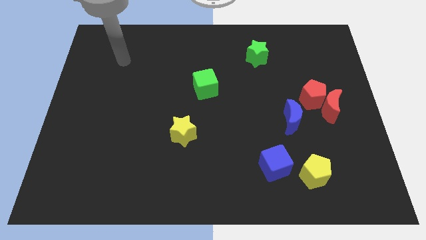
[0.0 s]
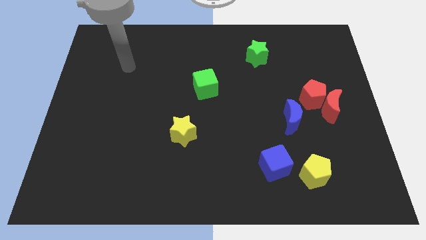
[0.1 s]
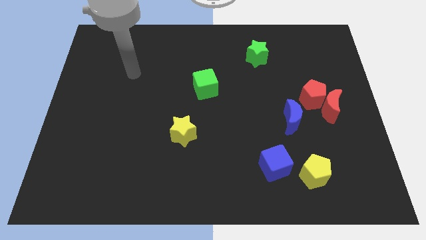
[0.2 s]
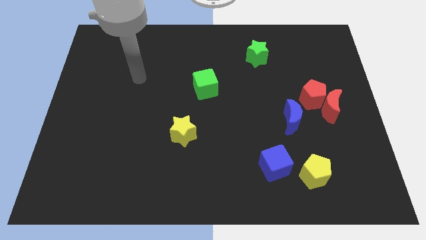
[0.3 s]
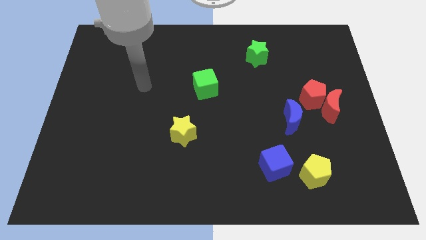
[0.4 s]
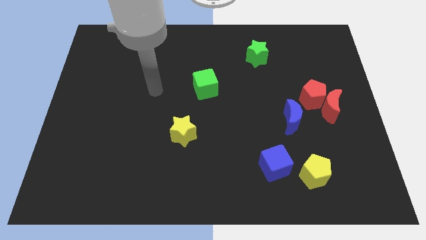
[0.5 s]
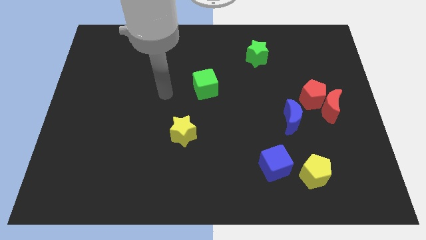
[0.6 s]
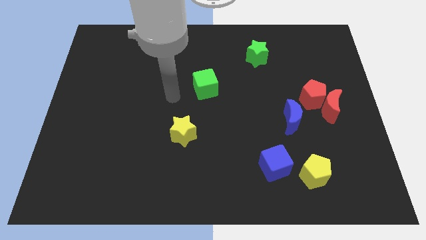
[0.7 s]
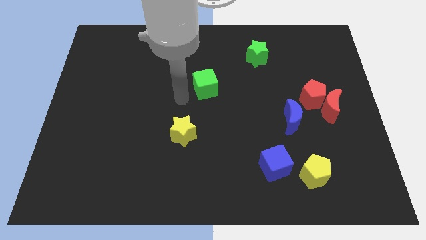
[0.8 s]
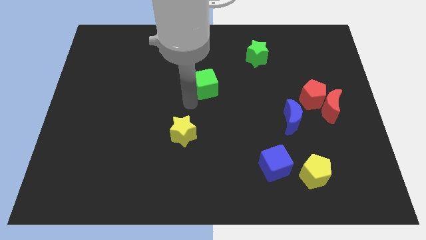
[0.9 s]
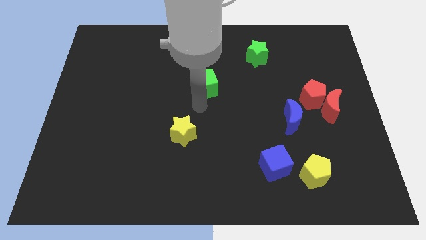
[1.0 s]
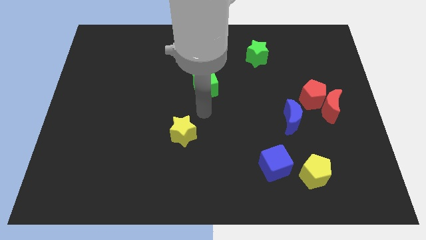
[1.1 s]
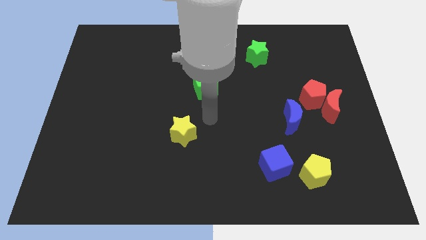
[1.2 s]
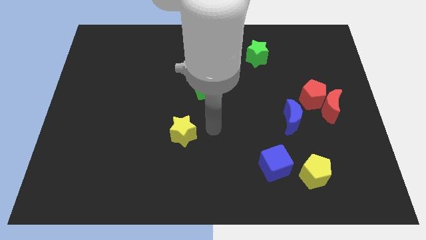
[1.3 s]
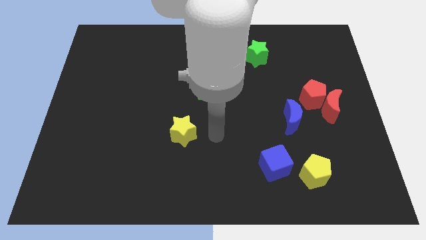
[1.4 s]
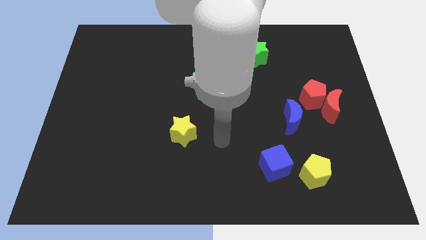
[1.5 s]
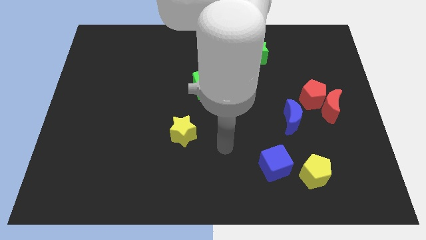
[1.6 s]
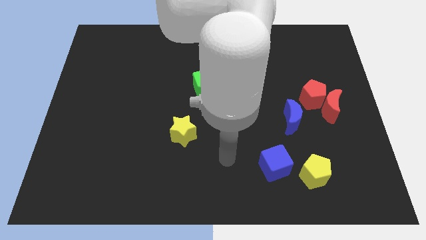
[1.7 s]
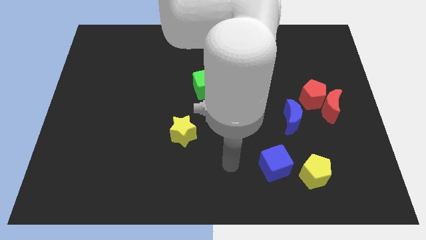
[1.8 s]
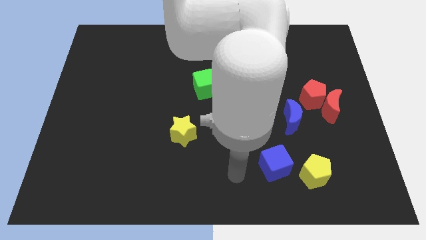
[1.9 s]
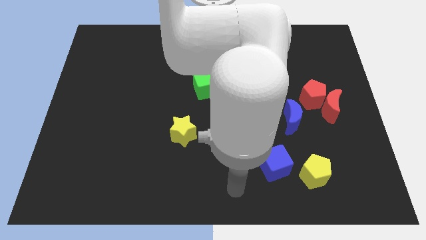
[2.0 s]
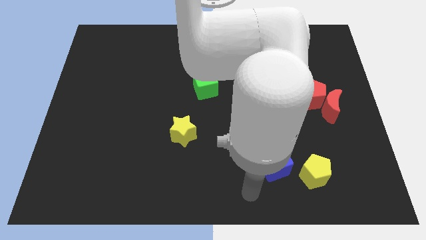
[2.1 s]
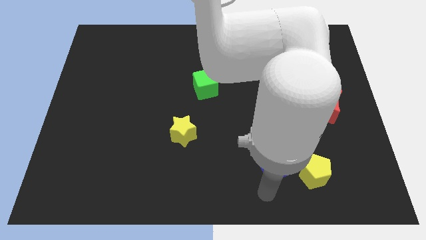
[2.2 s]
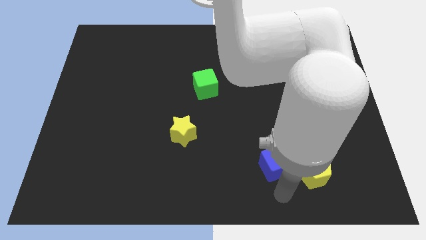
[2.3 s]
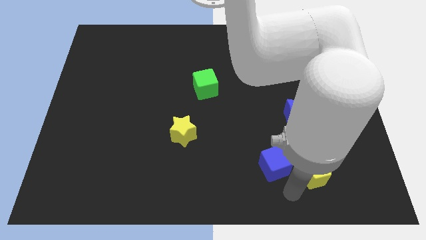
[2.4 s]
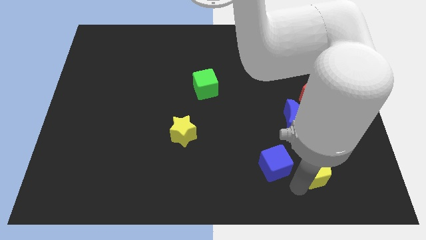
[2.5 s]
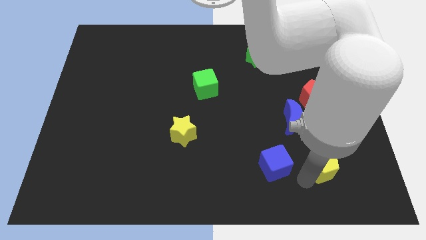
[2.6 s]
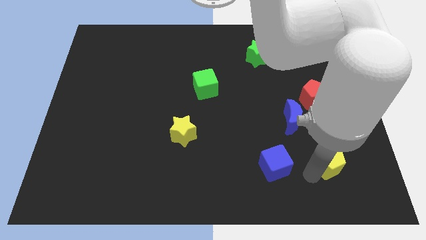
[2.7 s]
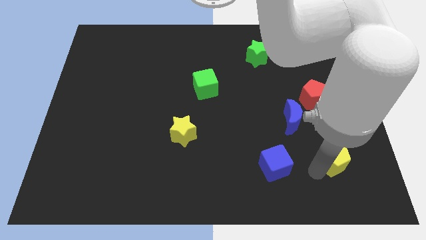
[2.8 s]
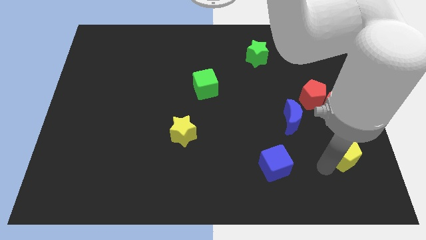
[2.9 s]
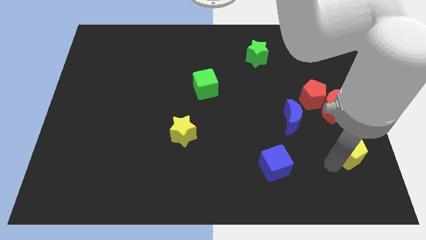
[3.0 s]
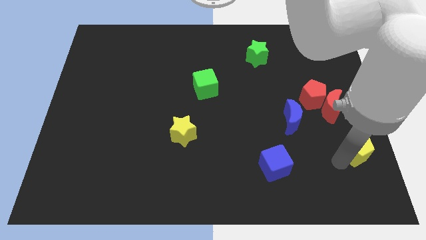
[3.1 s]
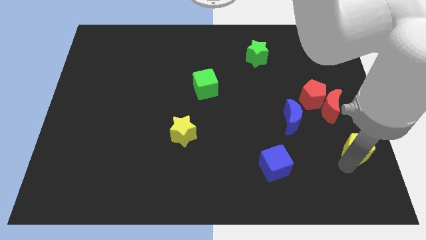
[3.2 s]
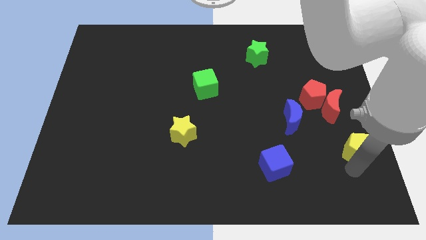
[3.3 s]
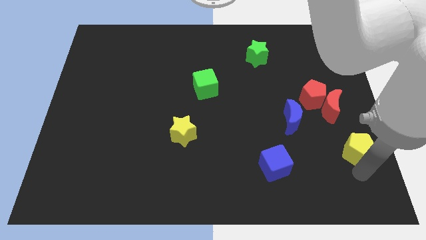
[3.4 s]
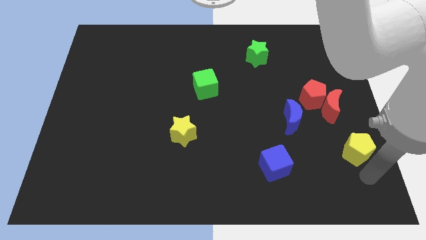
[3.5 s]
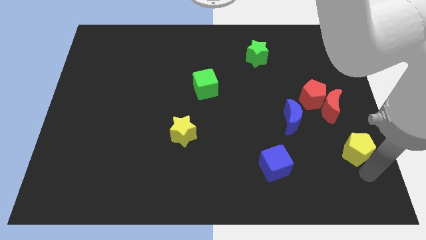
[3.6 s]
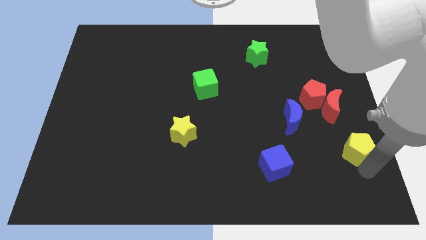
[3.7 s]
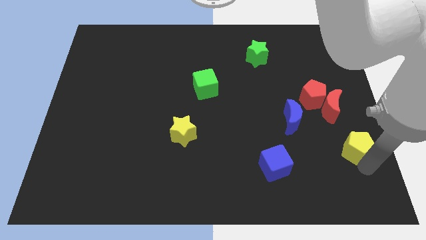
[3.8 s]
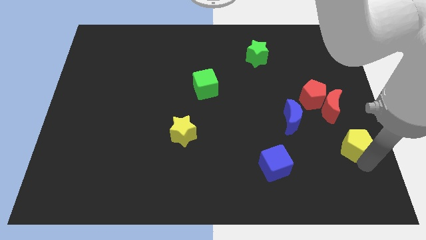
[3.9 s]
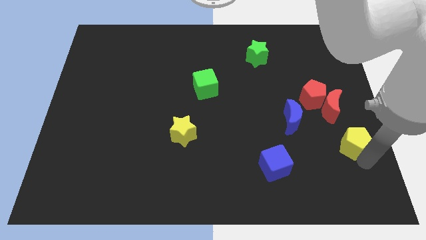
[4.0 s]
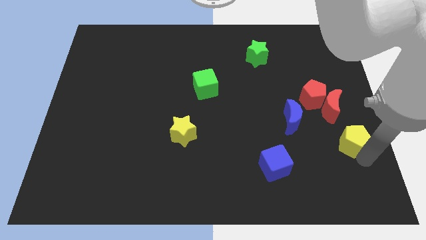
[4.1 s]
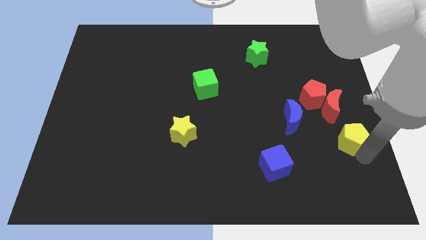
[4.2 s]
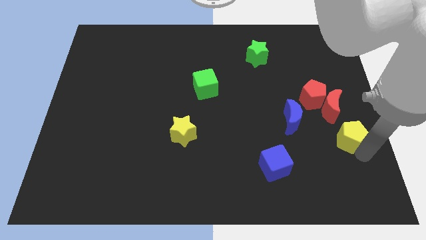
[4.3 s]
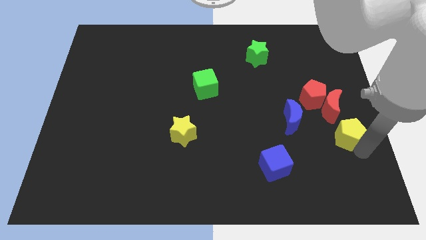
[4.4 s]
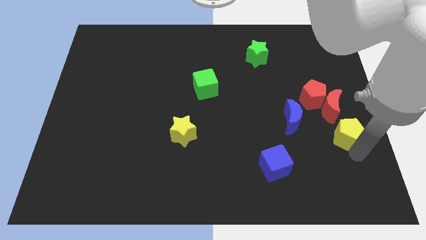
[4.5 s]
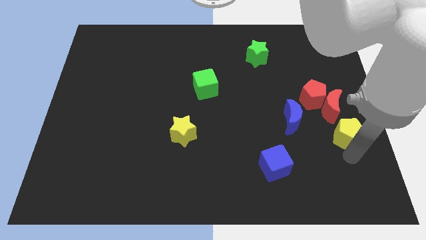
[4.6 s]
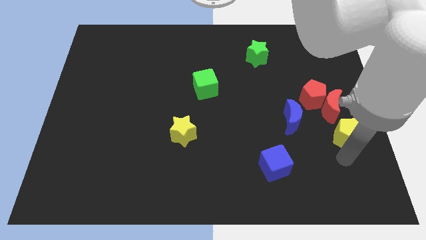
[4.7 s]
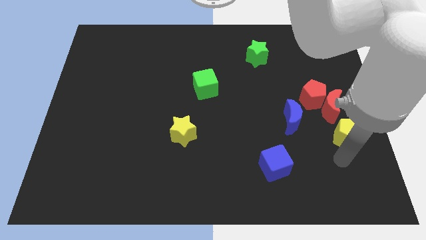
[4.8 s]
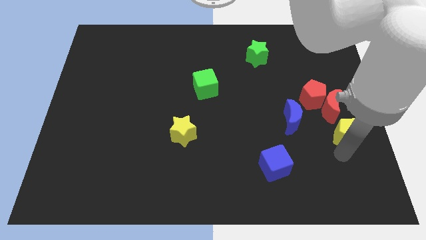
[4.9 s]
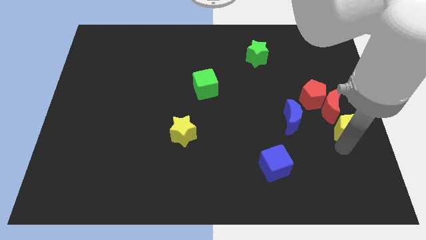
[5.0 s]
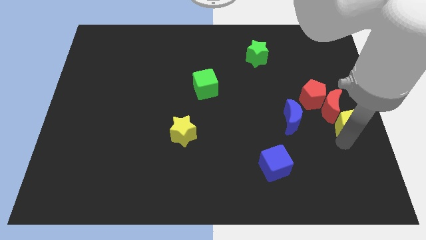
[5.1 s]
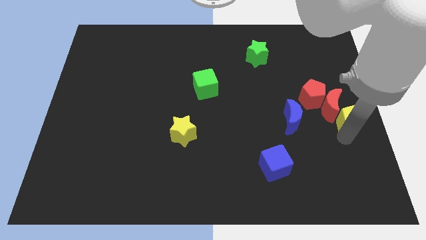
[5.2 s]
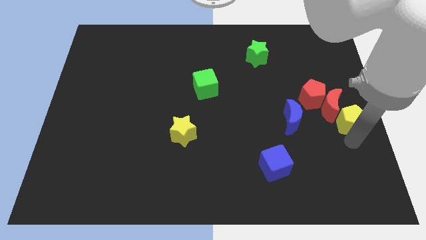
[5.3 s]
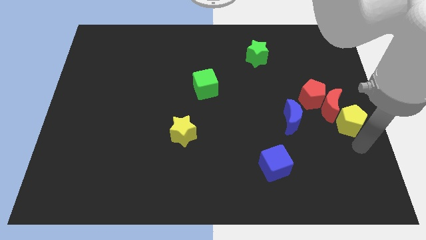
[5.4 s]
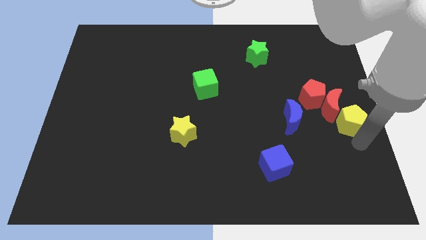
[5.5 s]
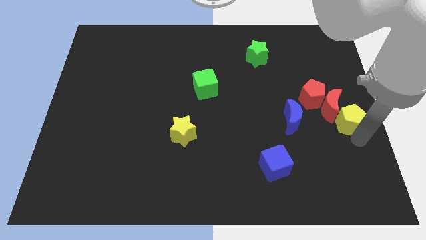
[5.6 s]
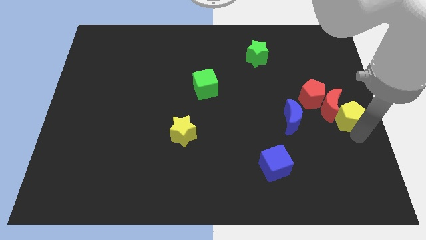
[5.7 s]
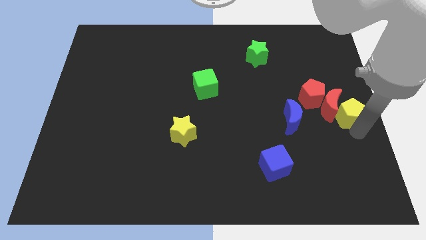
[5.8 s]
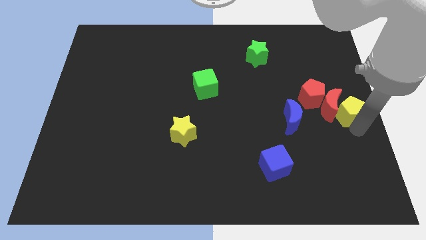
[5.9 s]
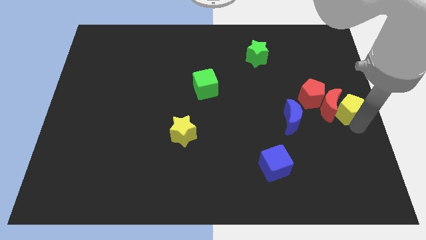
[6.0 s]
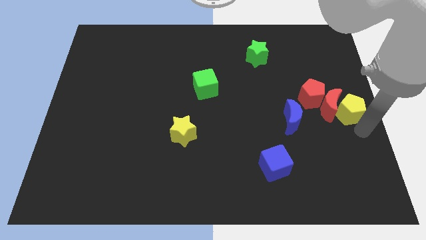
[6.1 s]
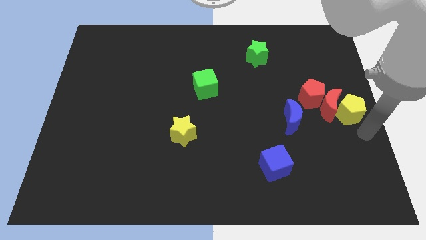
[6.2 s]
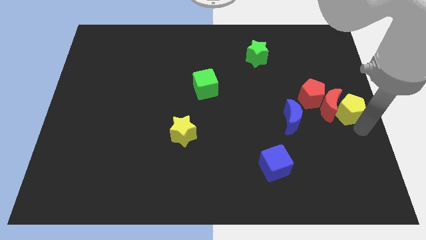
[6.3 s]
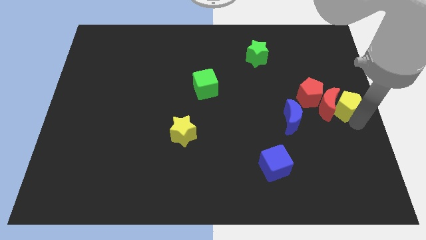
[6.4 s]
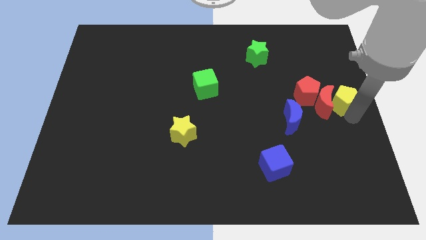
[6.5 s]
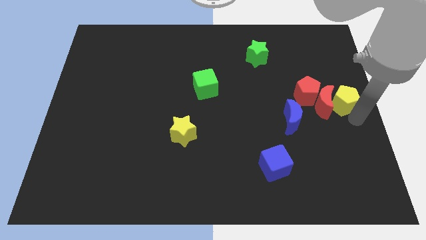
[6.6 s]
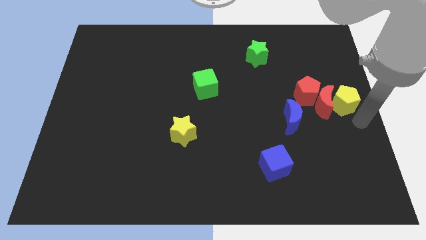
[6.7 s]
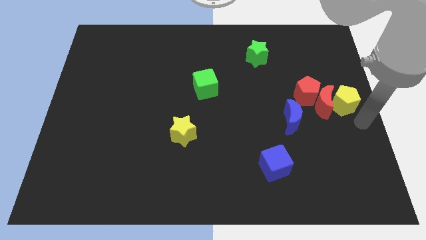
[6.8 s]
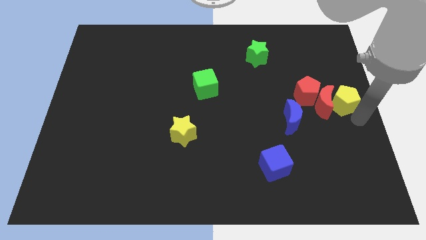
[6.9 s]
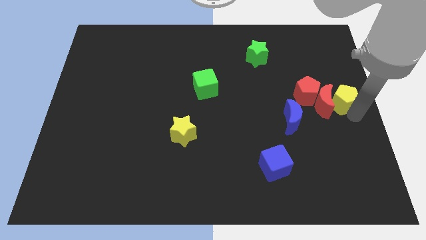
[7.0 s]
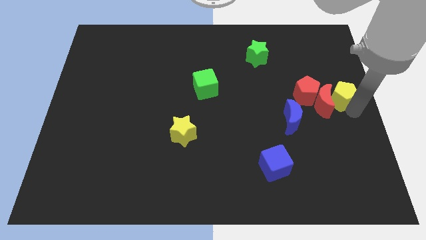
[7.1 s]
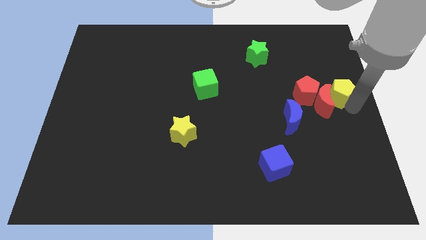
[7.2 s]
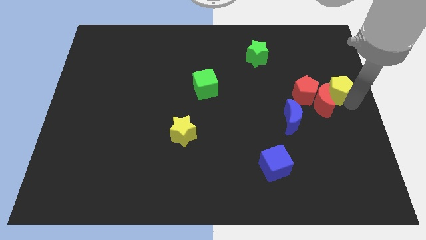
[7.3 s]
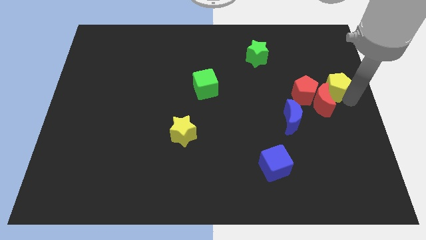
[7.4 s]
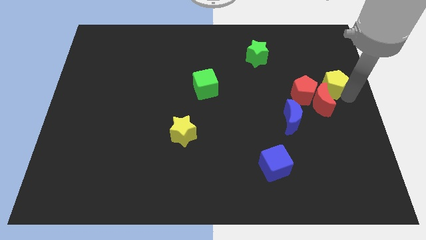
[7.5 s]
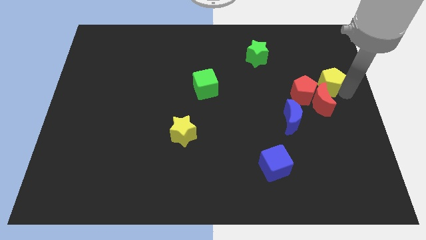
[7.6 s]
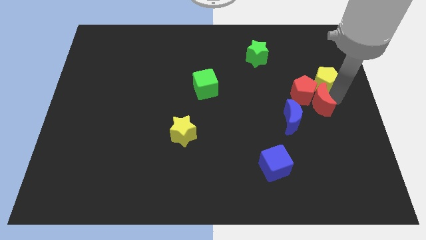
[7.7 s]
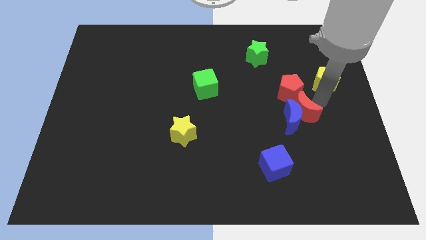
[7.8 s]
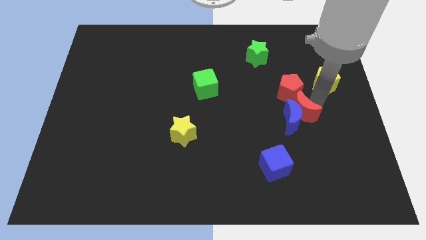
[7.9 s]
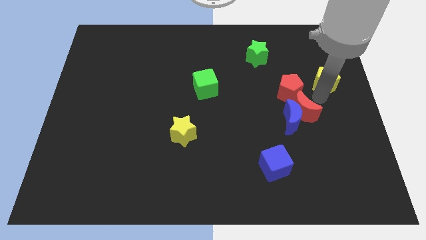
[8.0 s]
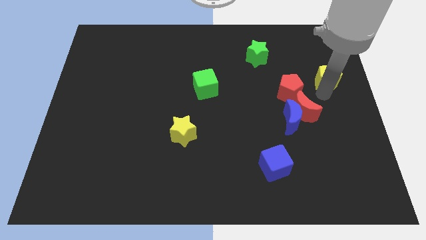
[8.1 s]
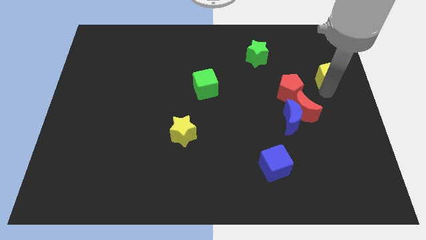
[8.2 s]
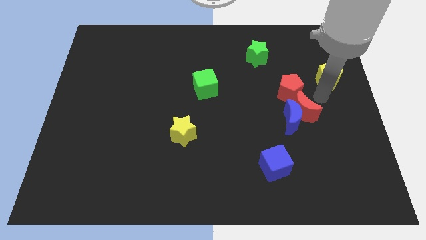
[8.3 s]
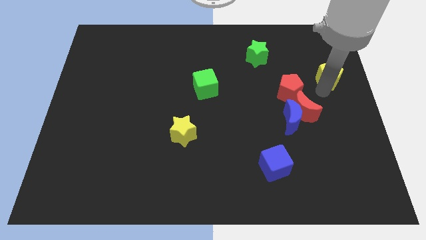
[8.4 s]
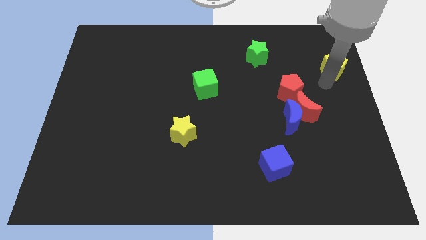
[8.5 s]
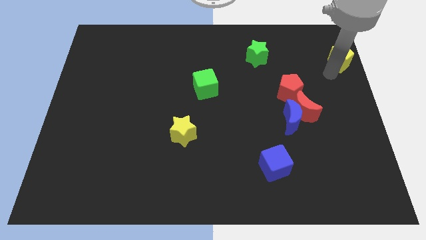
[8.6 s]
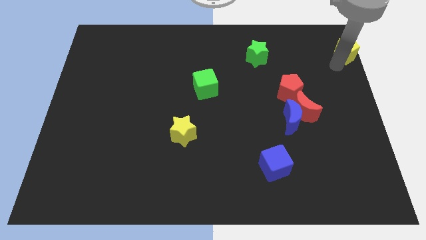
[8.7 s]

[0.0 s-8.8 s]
move the yellow pentagon to the top right corner
